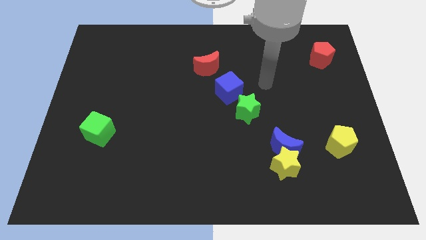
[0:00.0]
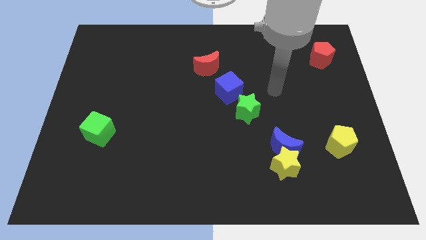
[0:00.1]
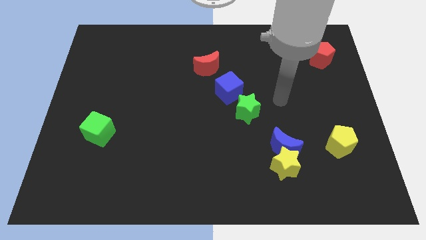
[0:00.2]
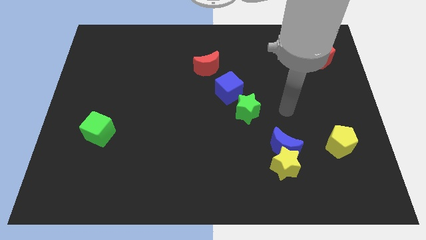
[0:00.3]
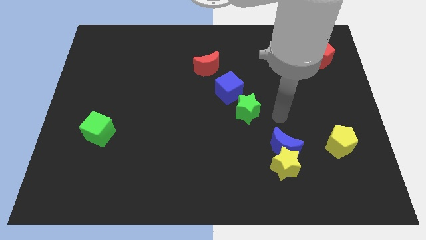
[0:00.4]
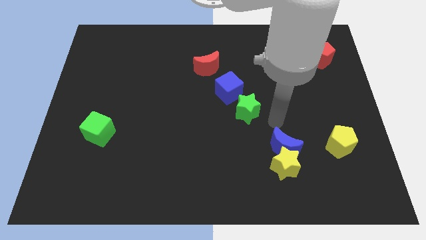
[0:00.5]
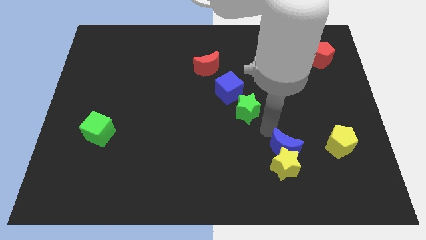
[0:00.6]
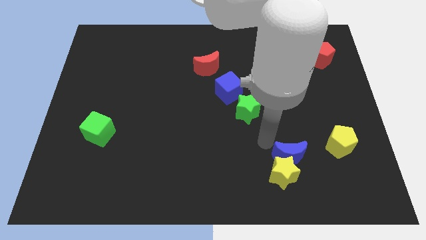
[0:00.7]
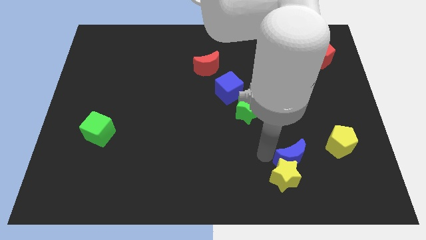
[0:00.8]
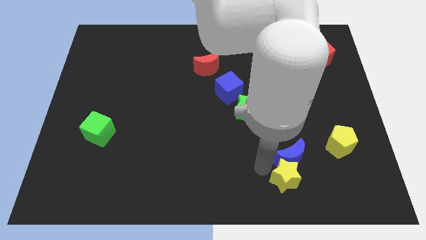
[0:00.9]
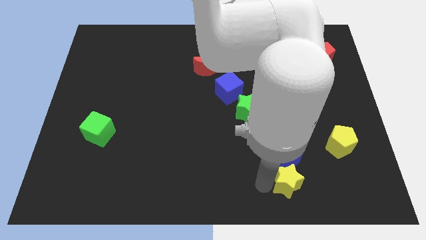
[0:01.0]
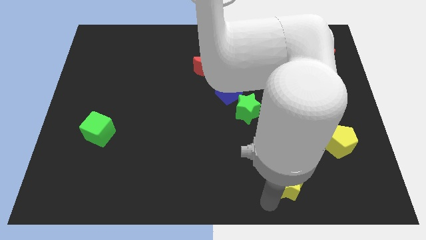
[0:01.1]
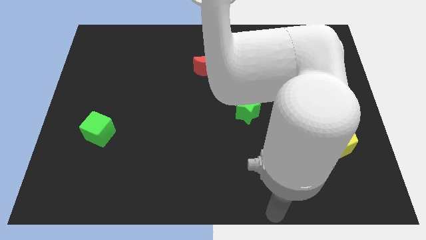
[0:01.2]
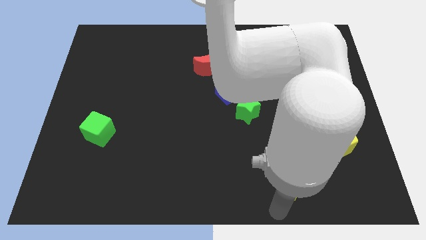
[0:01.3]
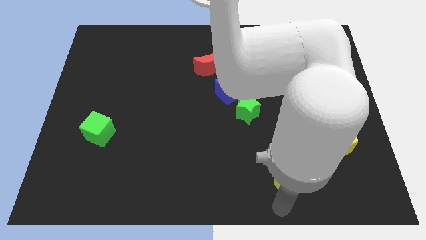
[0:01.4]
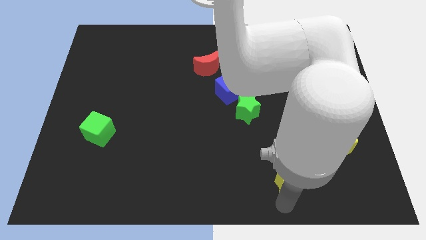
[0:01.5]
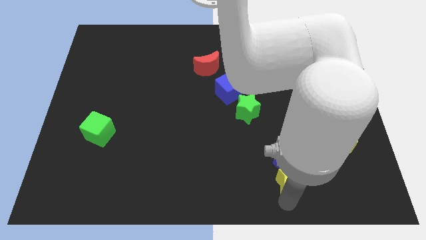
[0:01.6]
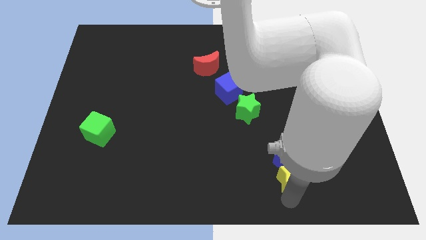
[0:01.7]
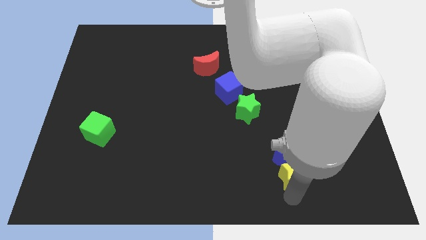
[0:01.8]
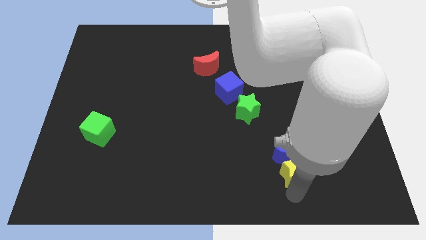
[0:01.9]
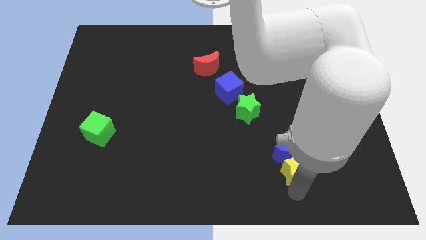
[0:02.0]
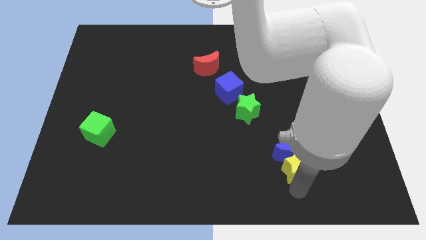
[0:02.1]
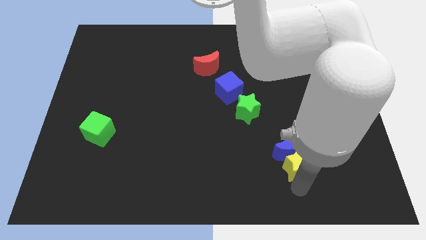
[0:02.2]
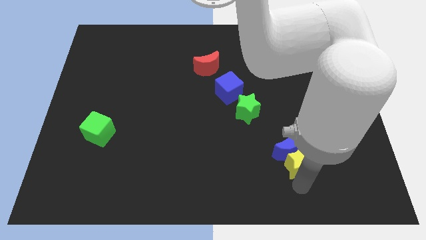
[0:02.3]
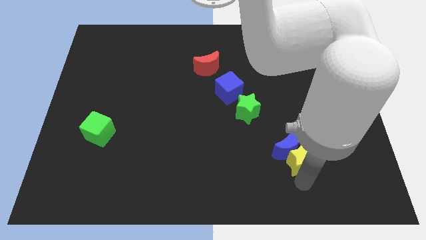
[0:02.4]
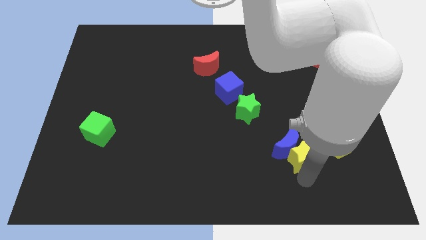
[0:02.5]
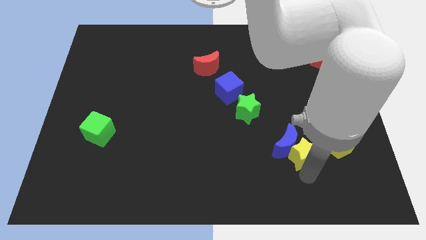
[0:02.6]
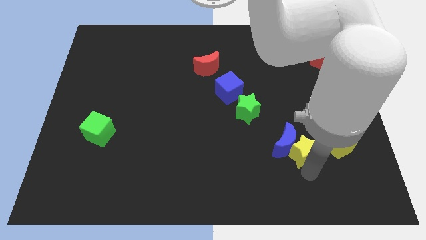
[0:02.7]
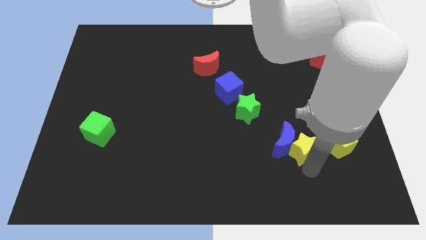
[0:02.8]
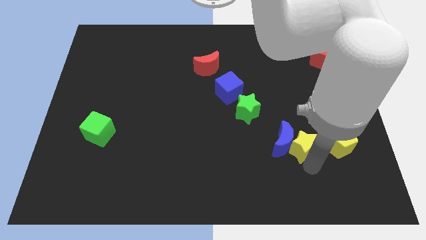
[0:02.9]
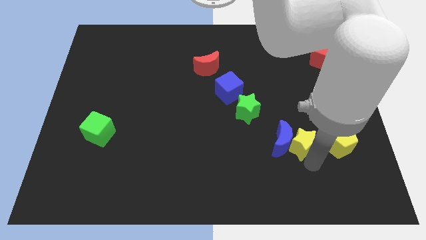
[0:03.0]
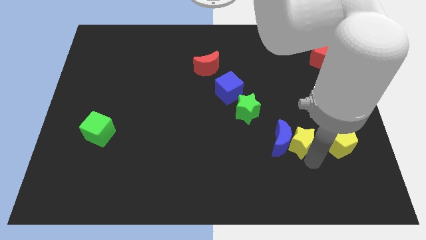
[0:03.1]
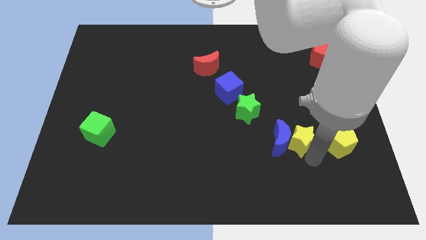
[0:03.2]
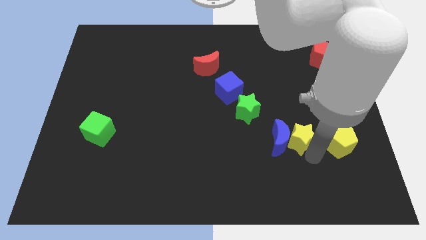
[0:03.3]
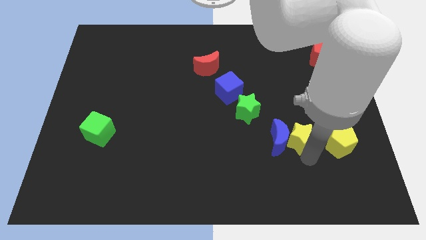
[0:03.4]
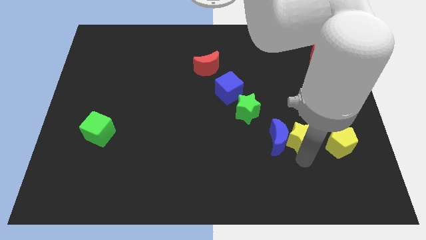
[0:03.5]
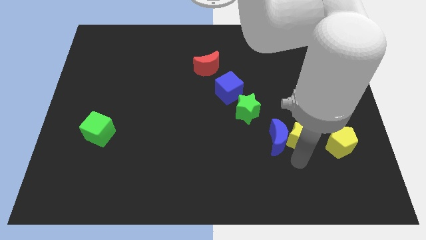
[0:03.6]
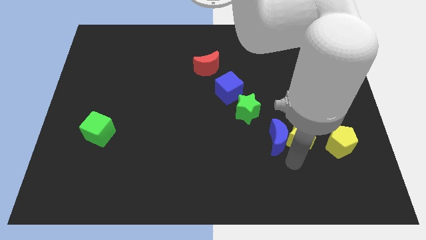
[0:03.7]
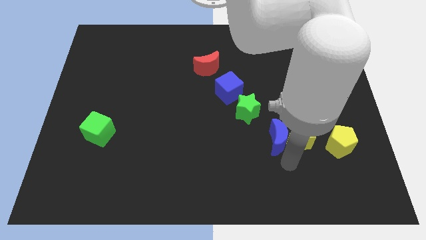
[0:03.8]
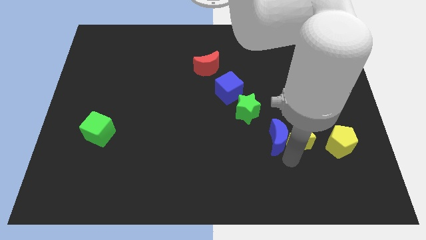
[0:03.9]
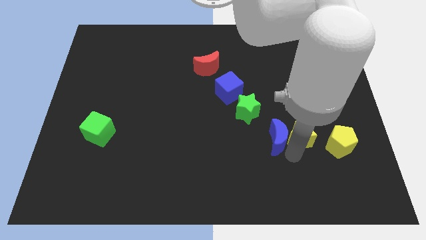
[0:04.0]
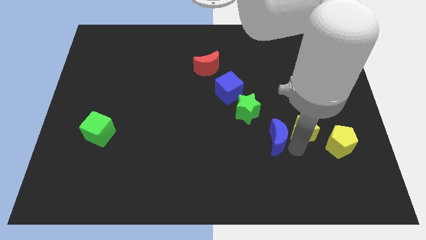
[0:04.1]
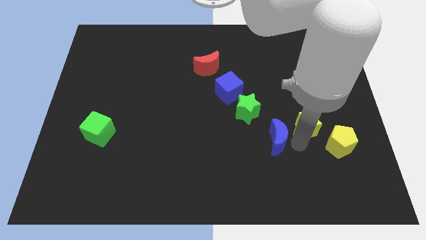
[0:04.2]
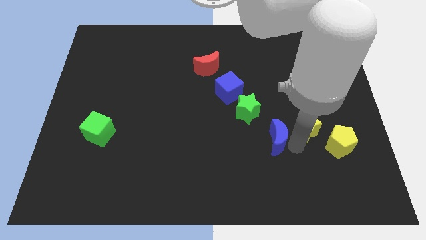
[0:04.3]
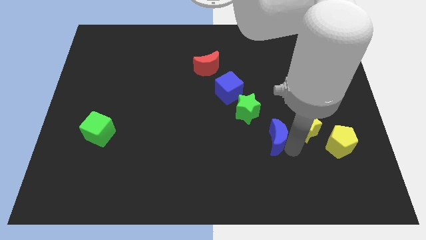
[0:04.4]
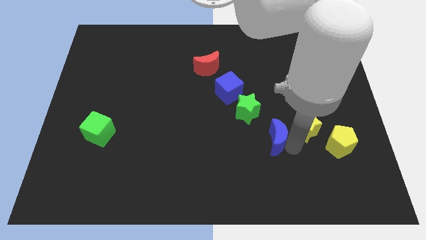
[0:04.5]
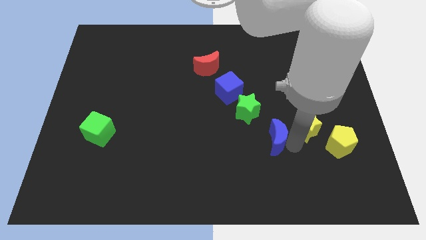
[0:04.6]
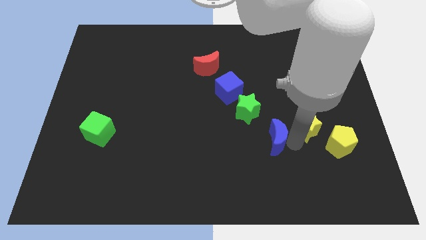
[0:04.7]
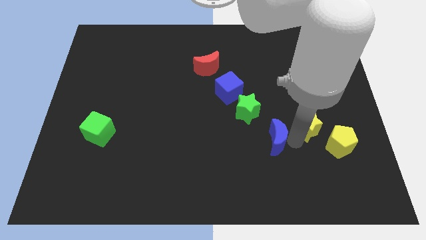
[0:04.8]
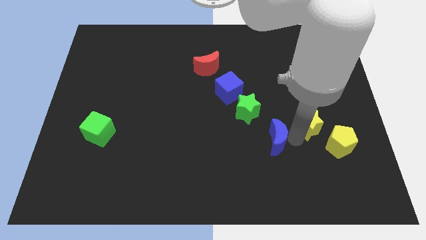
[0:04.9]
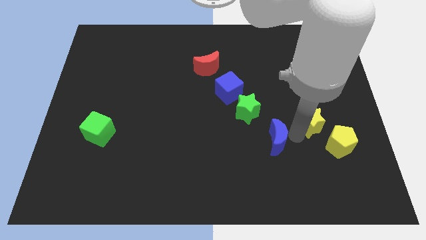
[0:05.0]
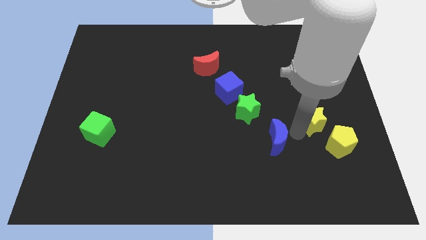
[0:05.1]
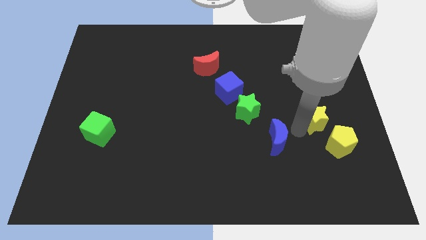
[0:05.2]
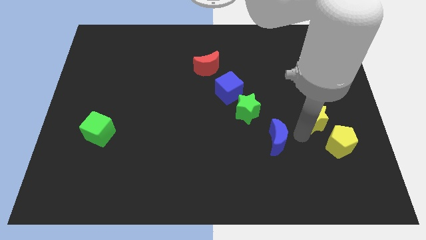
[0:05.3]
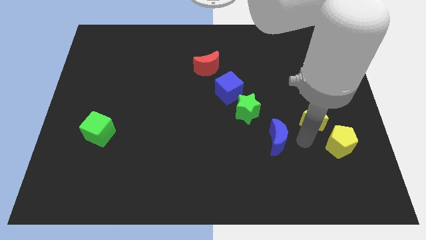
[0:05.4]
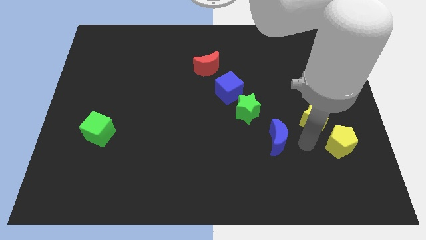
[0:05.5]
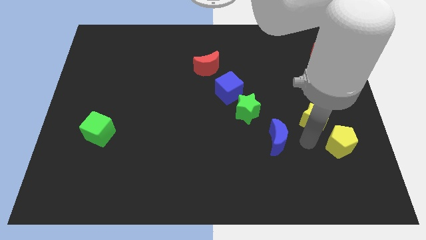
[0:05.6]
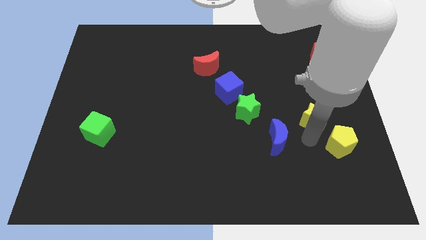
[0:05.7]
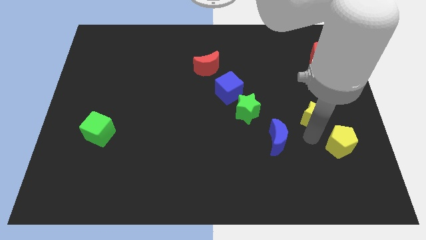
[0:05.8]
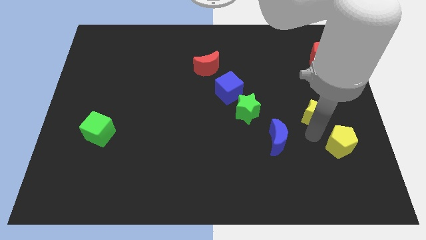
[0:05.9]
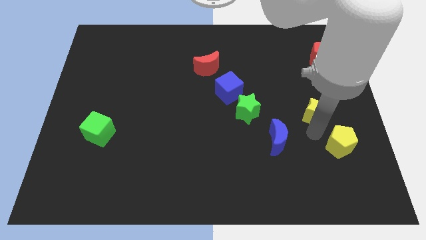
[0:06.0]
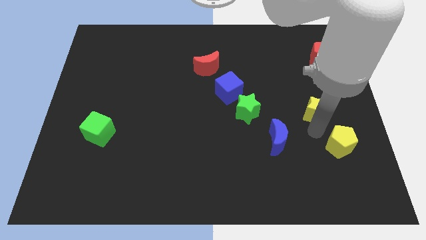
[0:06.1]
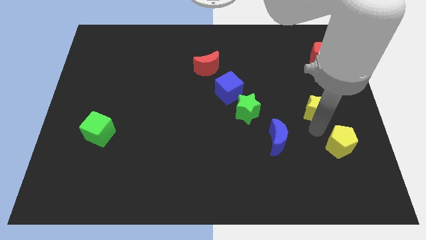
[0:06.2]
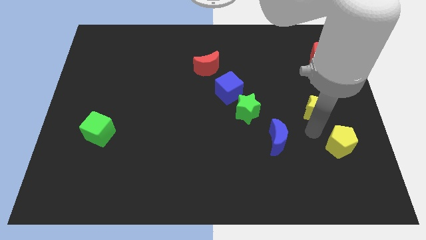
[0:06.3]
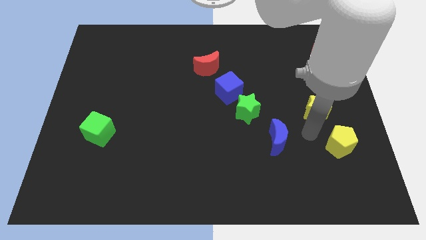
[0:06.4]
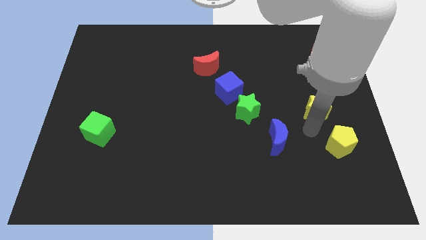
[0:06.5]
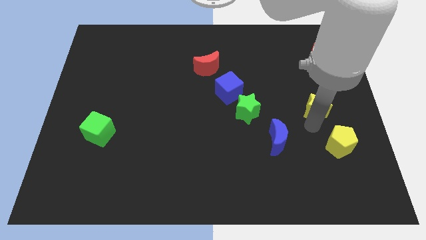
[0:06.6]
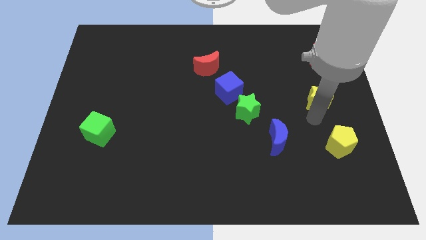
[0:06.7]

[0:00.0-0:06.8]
put the yellow star to the bottom side of the red pentagon

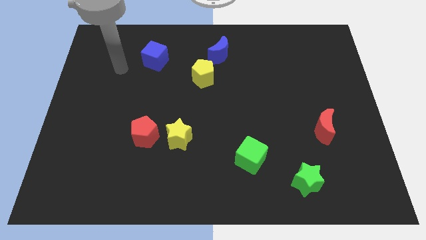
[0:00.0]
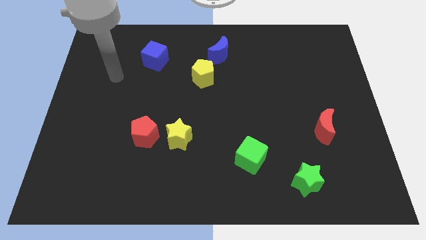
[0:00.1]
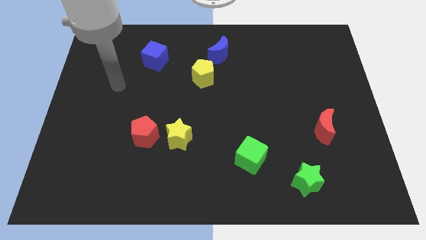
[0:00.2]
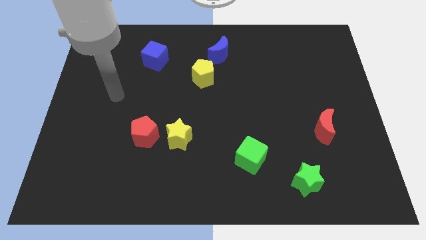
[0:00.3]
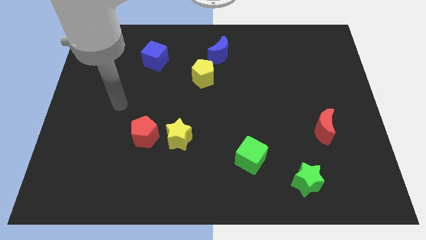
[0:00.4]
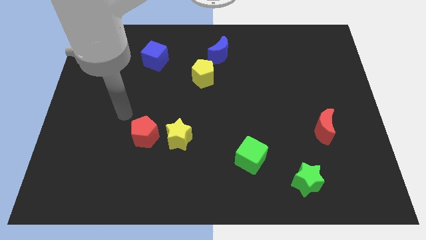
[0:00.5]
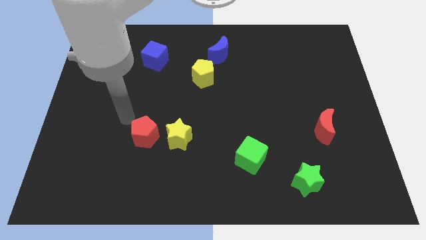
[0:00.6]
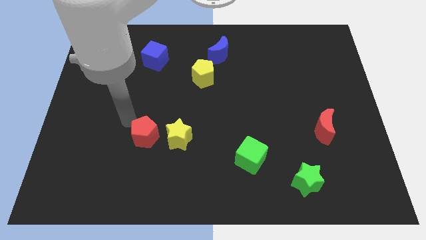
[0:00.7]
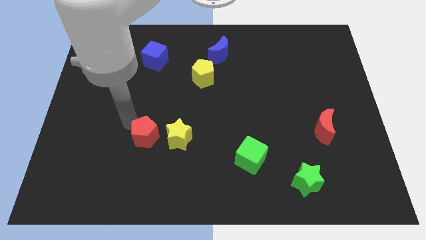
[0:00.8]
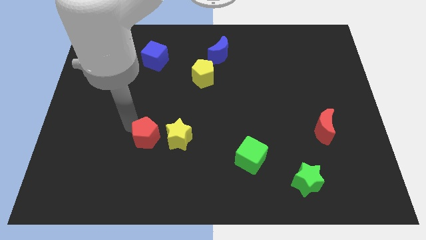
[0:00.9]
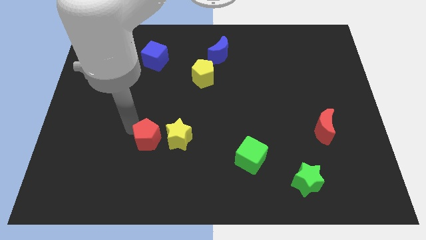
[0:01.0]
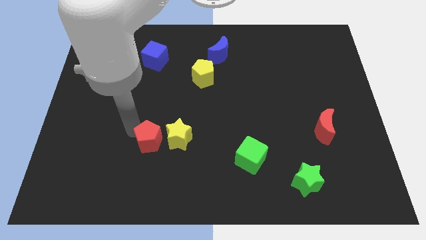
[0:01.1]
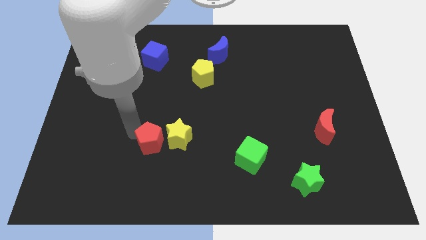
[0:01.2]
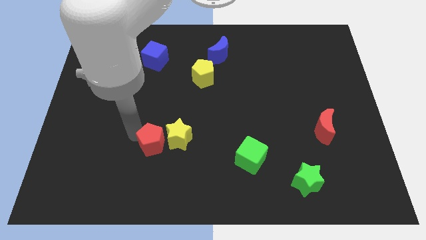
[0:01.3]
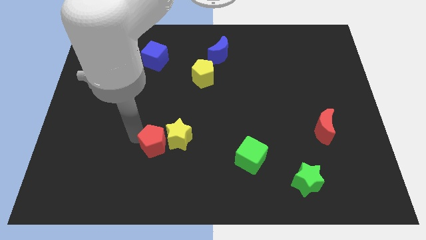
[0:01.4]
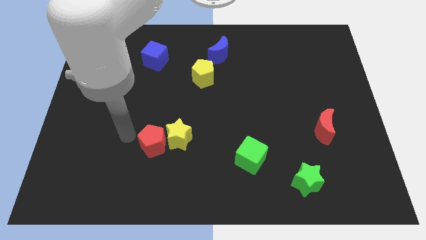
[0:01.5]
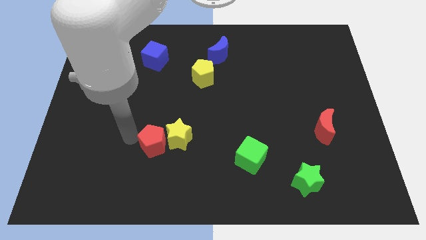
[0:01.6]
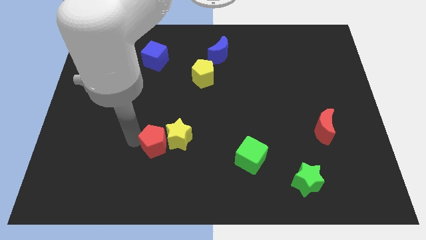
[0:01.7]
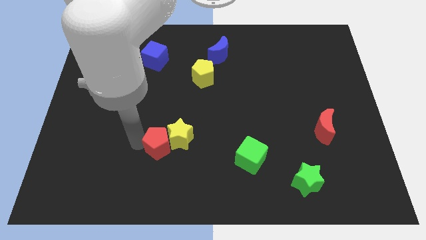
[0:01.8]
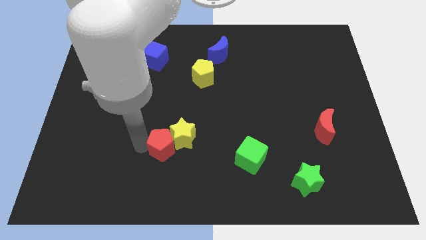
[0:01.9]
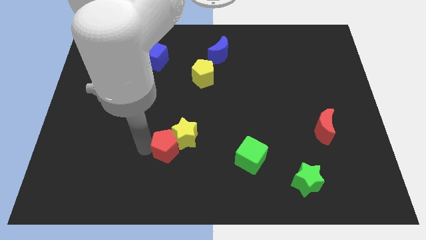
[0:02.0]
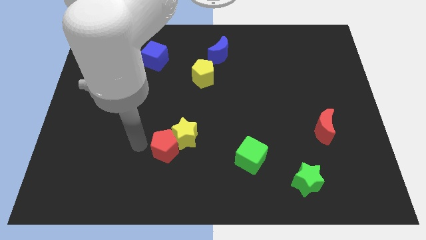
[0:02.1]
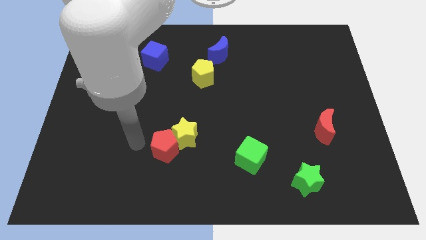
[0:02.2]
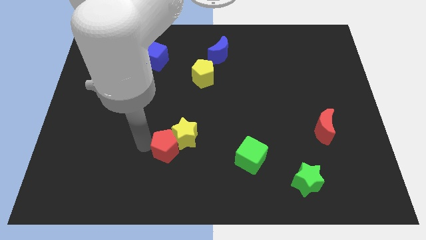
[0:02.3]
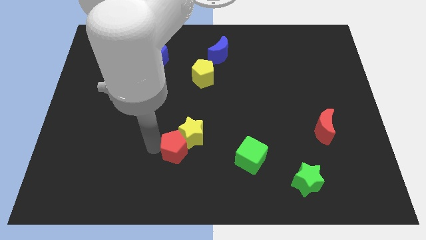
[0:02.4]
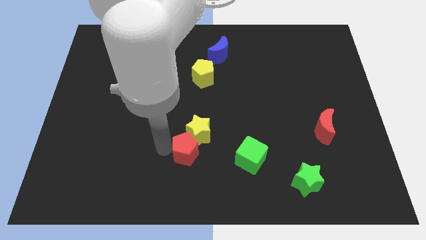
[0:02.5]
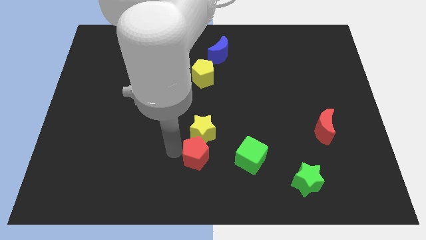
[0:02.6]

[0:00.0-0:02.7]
slide the red pentagon diagonally down and to the right of the yellow star
